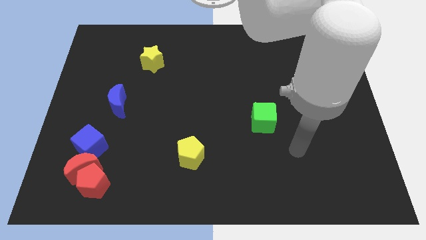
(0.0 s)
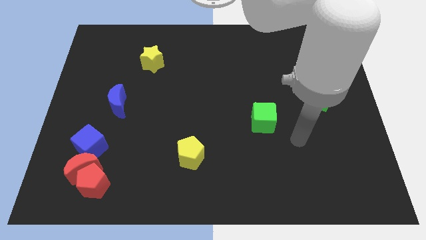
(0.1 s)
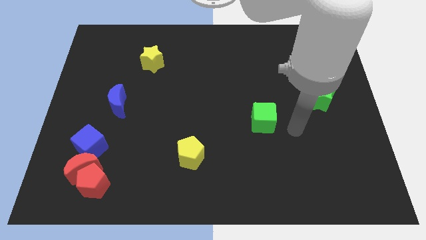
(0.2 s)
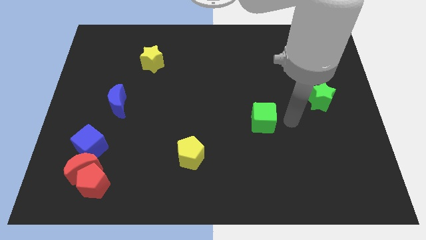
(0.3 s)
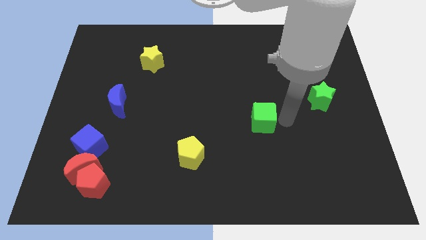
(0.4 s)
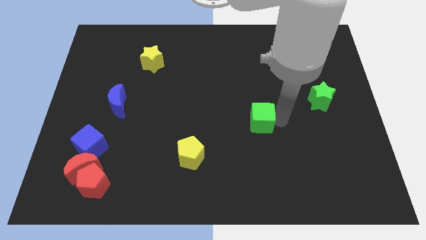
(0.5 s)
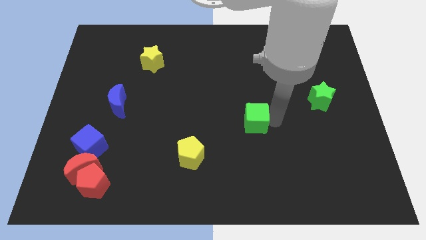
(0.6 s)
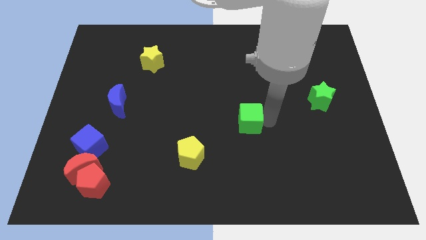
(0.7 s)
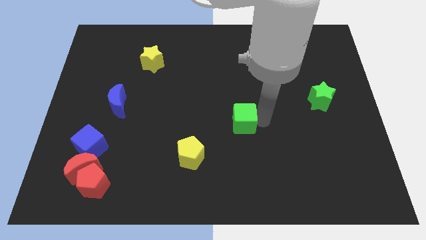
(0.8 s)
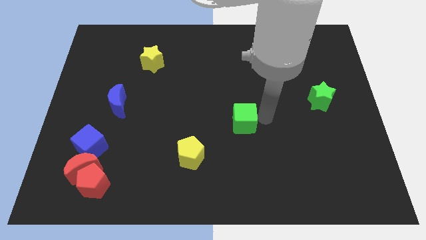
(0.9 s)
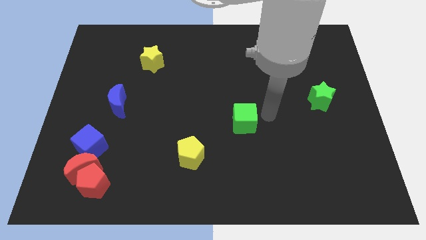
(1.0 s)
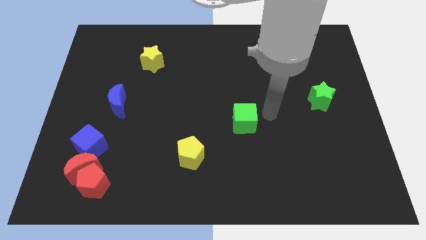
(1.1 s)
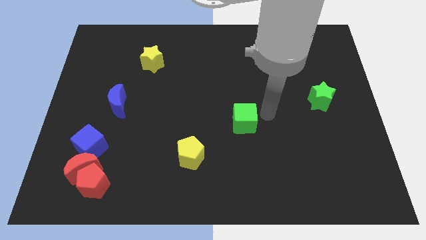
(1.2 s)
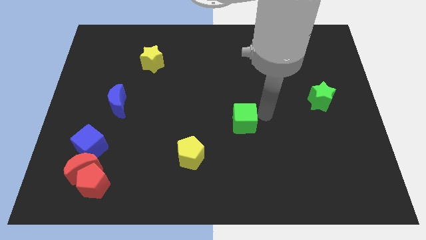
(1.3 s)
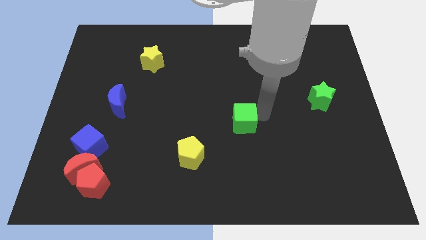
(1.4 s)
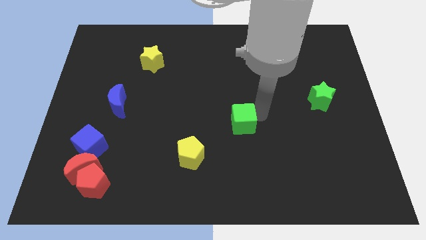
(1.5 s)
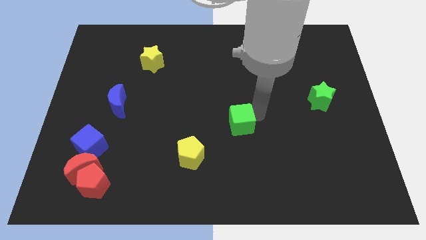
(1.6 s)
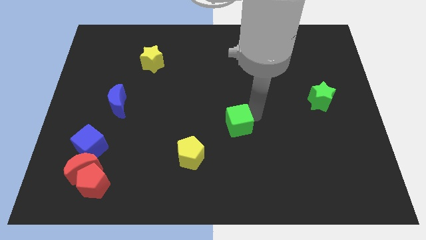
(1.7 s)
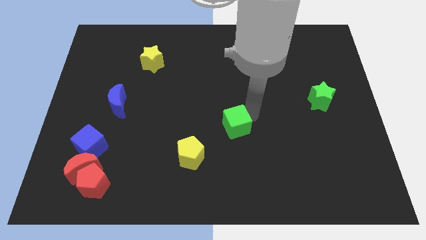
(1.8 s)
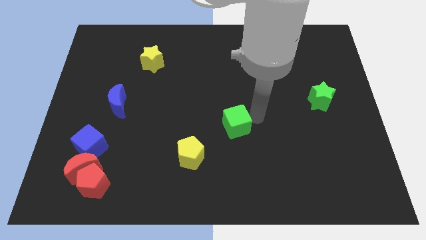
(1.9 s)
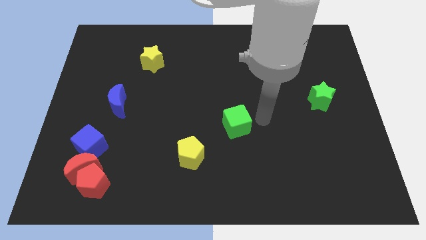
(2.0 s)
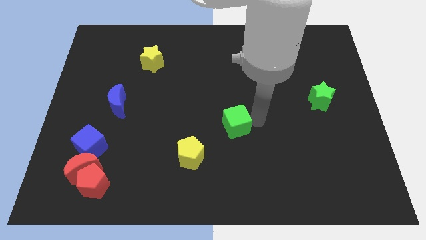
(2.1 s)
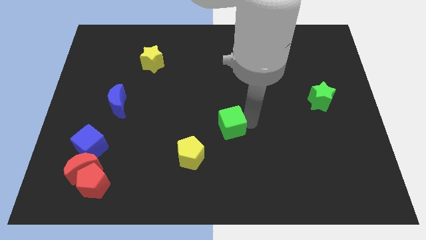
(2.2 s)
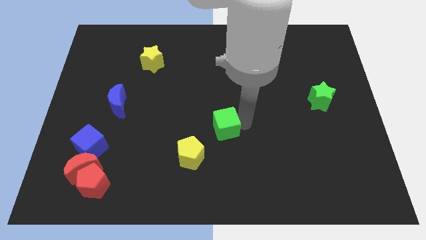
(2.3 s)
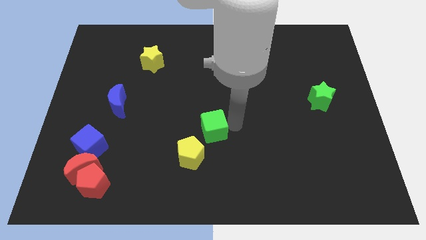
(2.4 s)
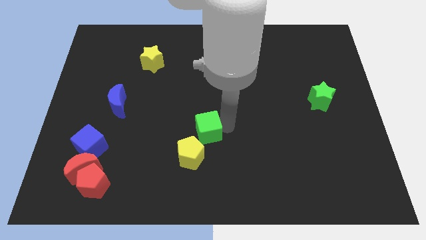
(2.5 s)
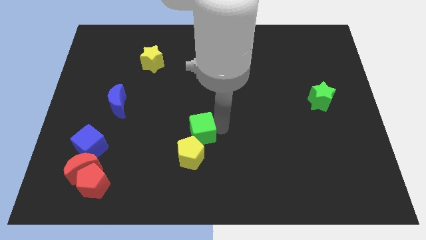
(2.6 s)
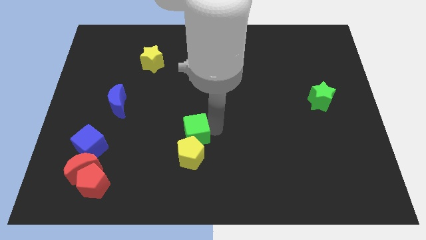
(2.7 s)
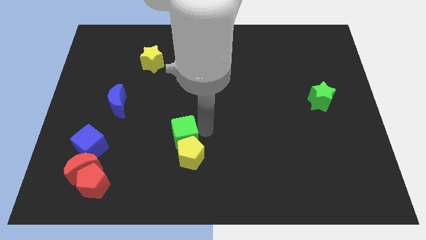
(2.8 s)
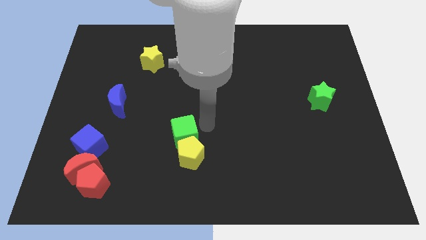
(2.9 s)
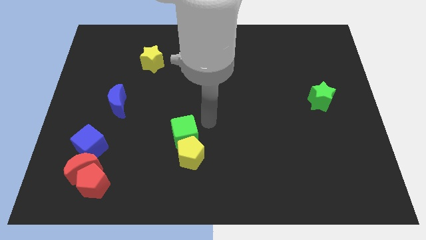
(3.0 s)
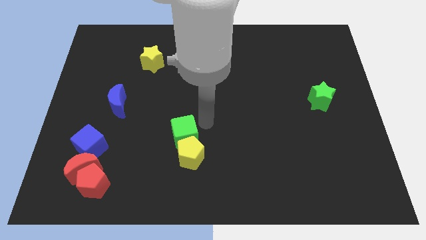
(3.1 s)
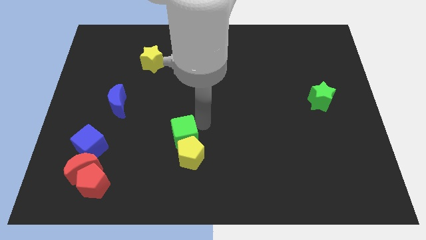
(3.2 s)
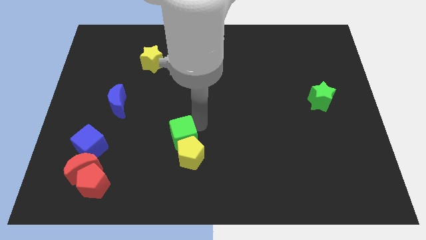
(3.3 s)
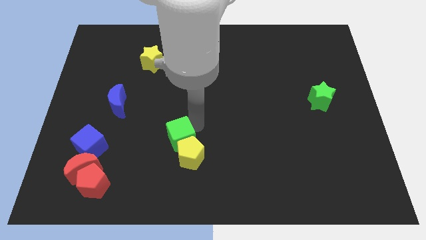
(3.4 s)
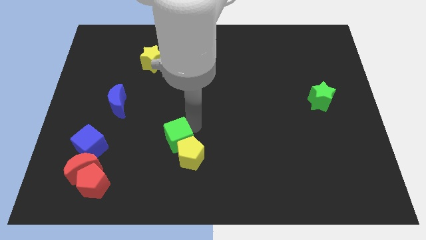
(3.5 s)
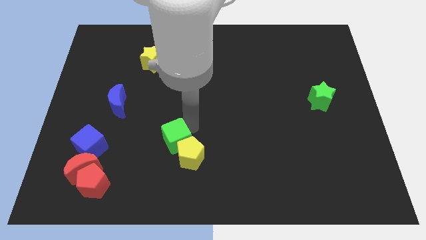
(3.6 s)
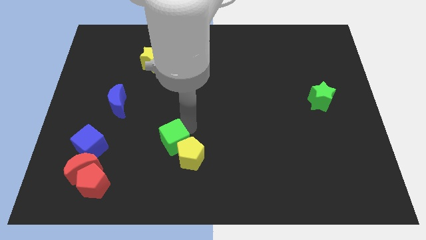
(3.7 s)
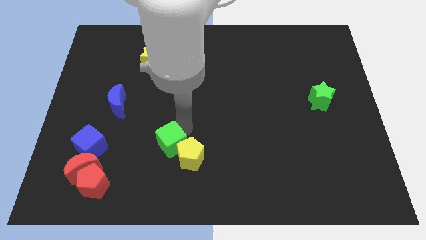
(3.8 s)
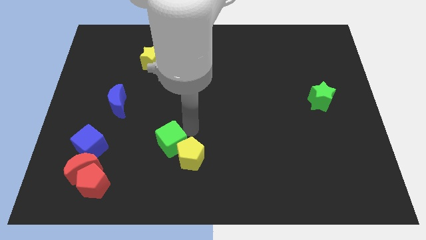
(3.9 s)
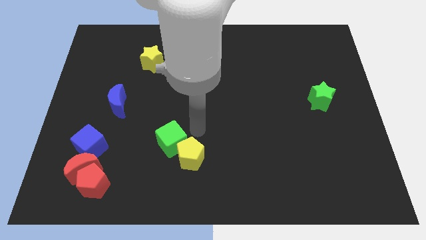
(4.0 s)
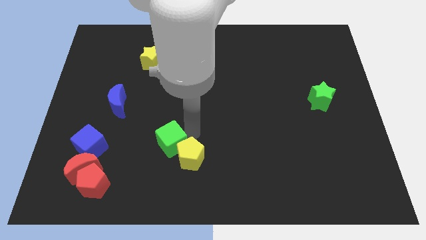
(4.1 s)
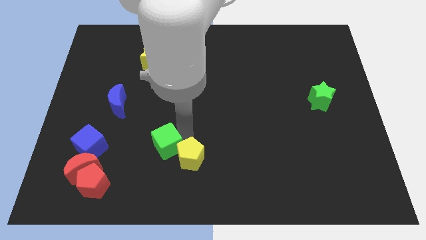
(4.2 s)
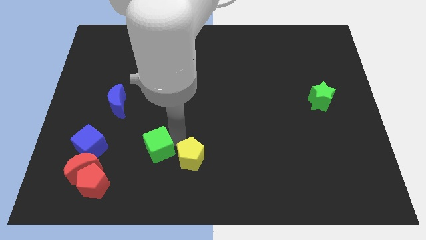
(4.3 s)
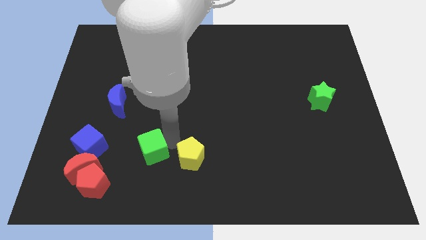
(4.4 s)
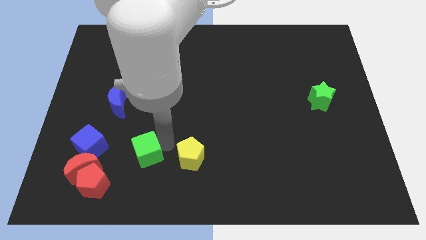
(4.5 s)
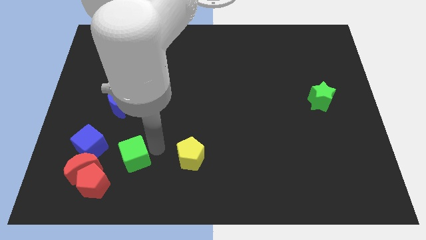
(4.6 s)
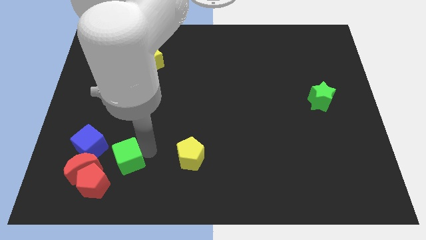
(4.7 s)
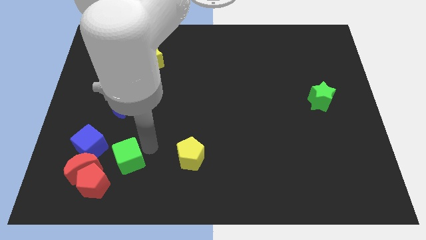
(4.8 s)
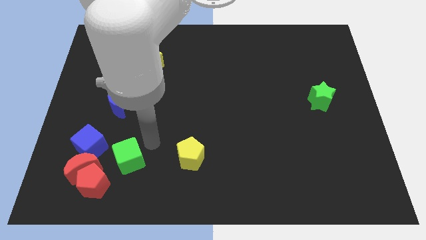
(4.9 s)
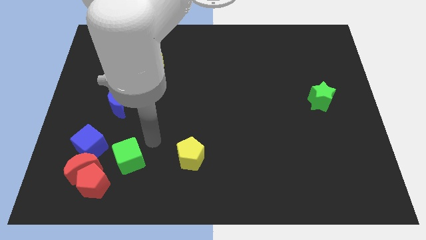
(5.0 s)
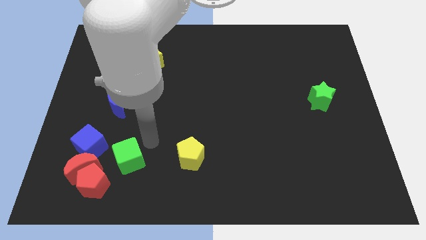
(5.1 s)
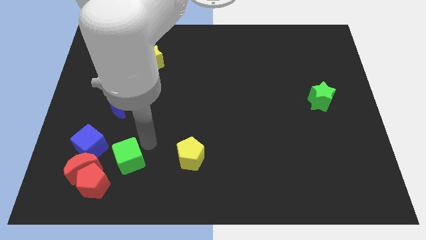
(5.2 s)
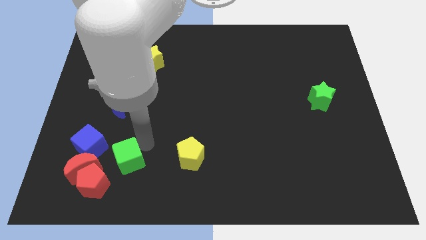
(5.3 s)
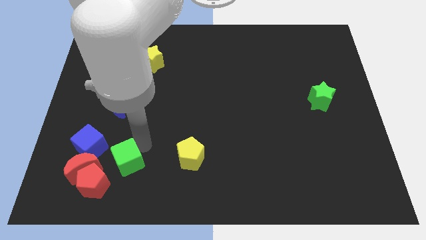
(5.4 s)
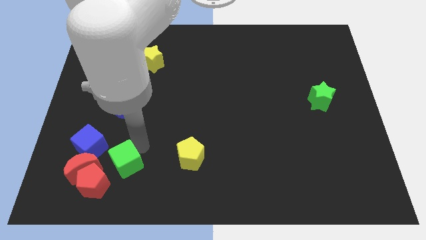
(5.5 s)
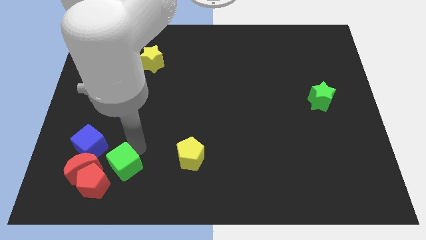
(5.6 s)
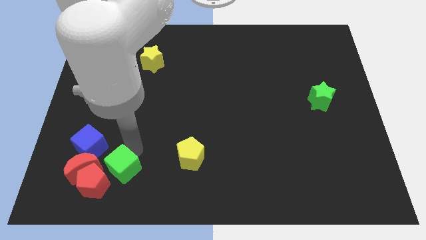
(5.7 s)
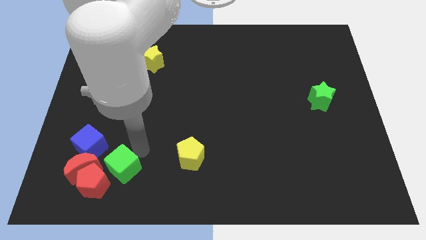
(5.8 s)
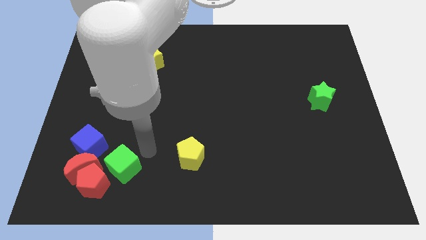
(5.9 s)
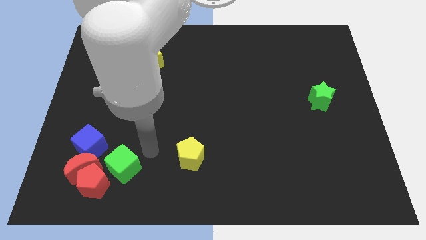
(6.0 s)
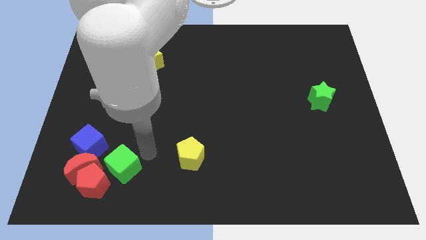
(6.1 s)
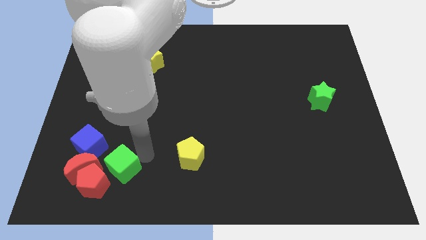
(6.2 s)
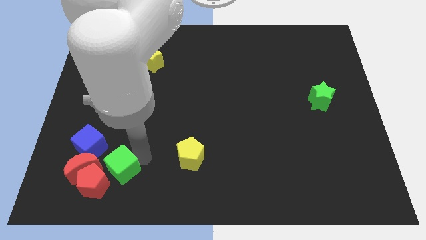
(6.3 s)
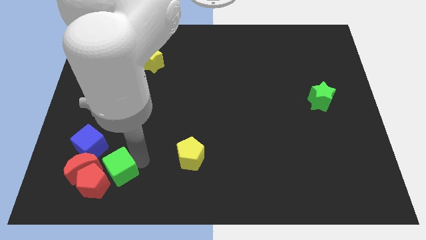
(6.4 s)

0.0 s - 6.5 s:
push the green cube towards the red pentagon

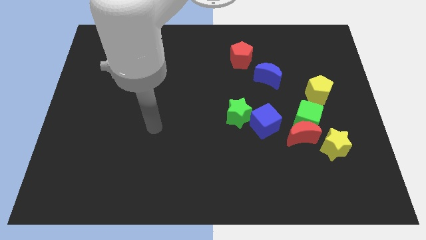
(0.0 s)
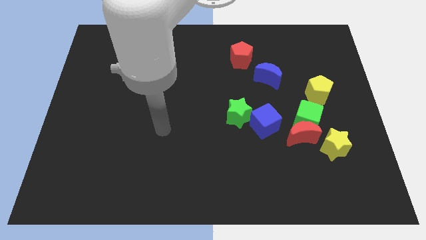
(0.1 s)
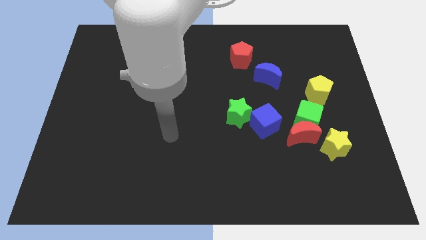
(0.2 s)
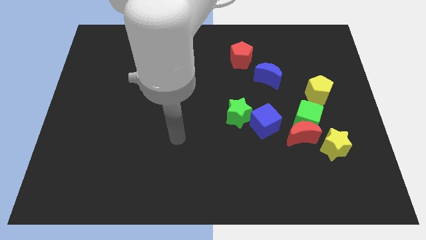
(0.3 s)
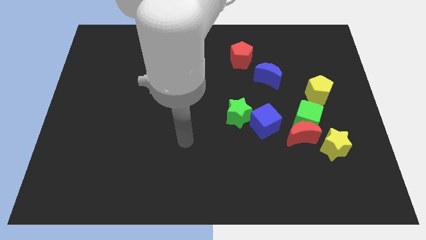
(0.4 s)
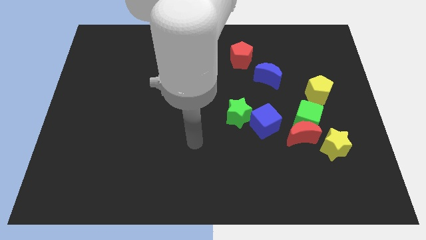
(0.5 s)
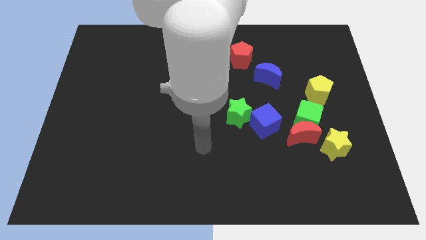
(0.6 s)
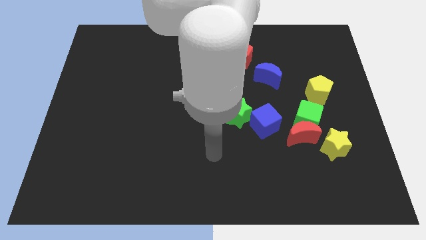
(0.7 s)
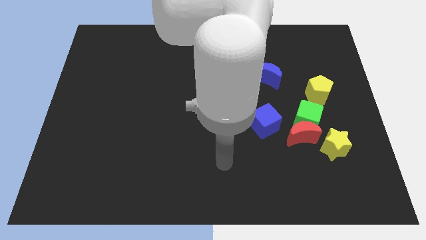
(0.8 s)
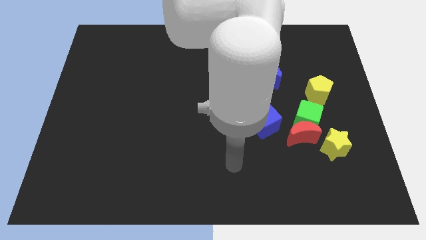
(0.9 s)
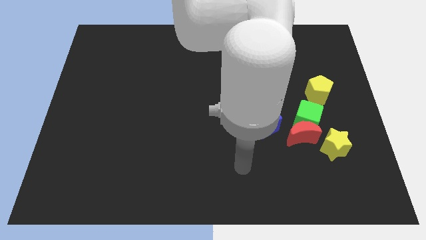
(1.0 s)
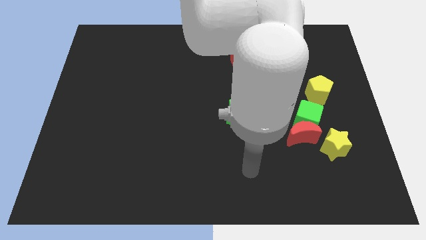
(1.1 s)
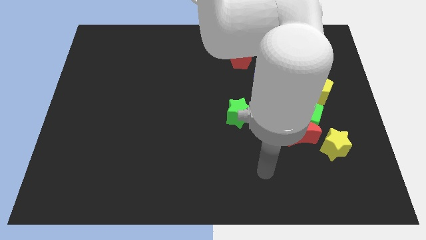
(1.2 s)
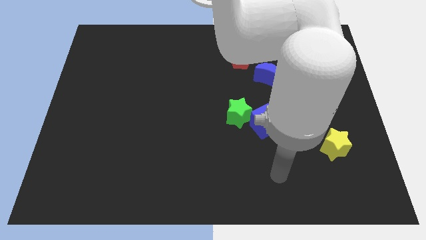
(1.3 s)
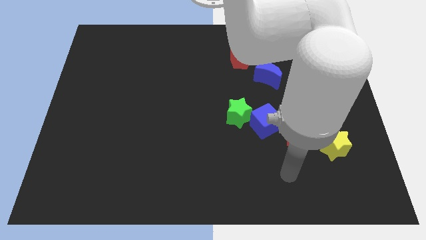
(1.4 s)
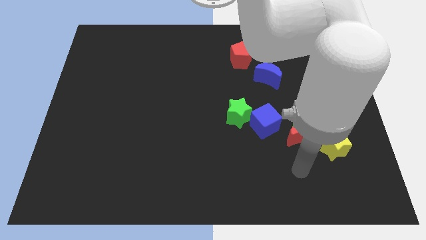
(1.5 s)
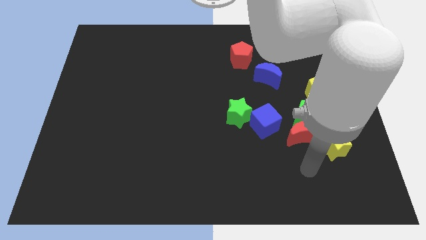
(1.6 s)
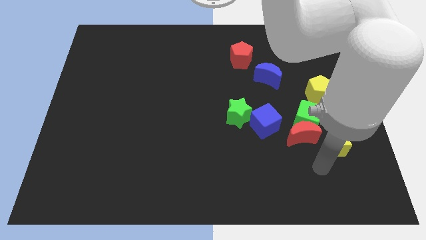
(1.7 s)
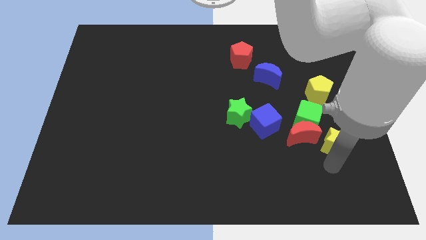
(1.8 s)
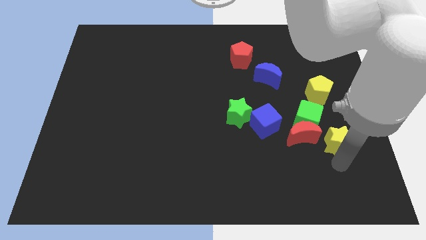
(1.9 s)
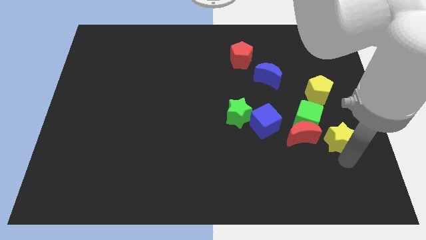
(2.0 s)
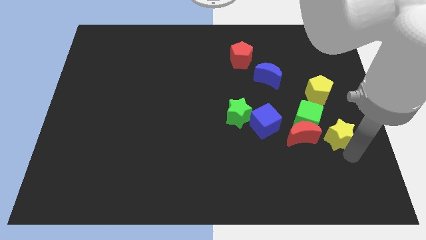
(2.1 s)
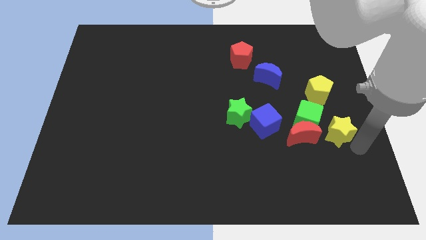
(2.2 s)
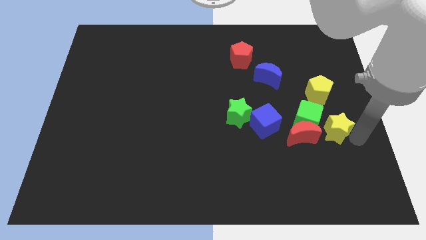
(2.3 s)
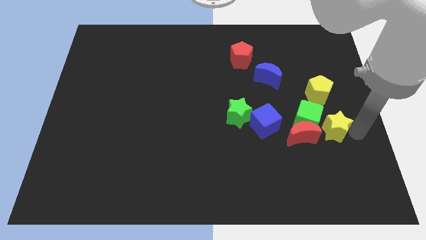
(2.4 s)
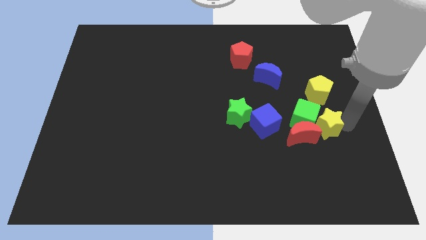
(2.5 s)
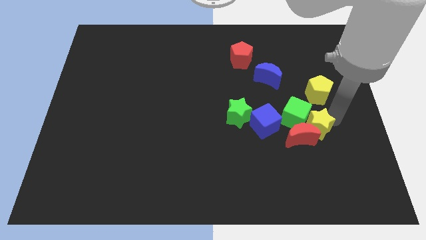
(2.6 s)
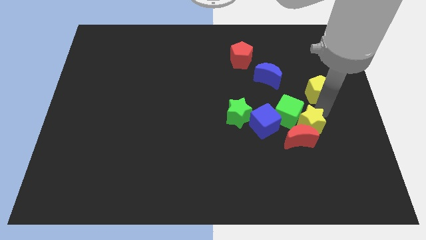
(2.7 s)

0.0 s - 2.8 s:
move the green cube close to the blue cube
